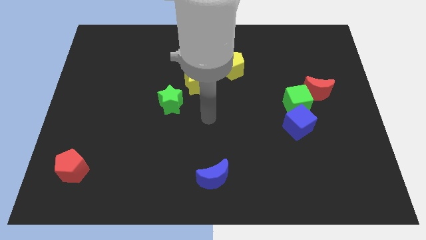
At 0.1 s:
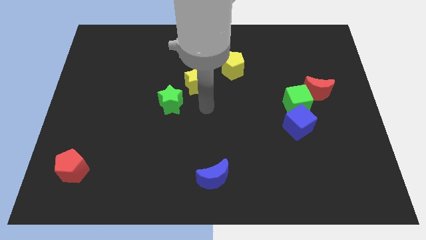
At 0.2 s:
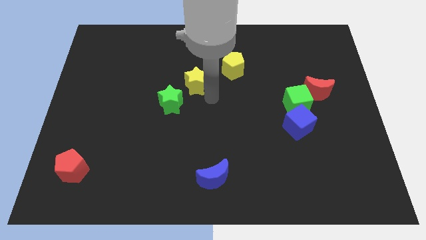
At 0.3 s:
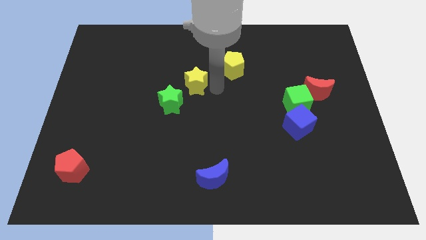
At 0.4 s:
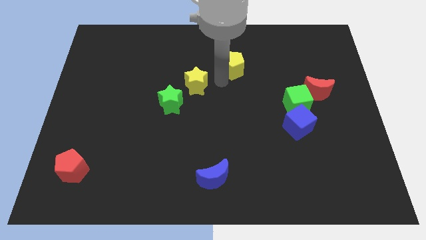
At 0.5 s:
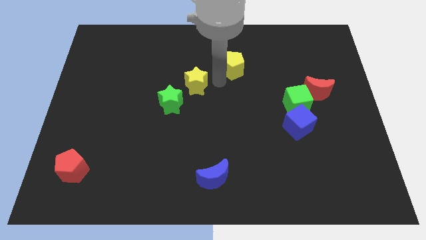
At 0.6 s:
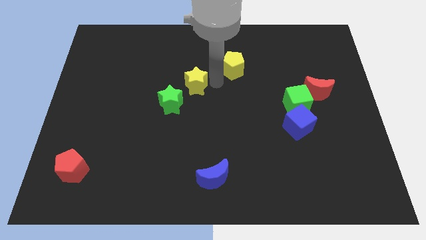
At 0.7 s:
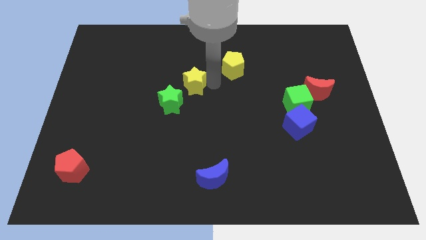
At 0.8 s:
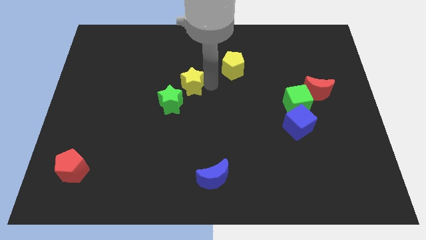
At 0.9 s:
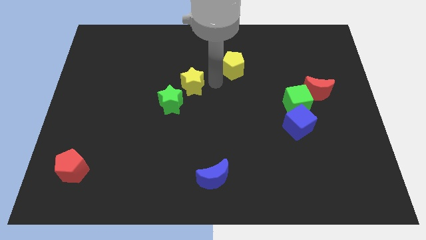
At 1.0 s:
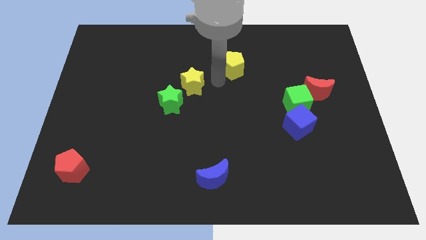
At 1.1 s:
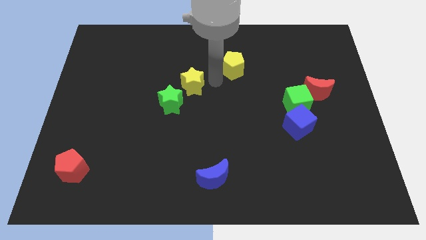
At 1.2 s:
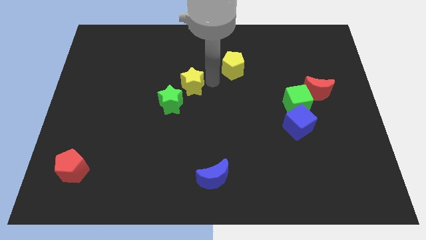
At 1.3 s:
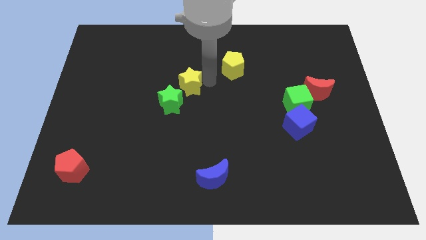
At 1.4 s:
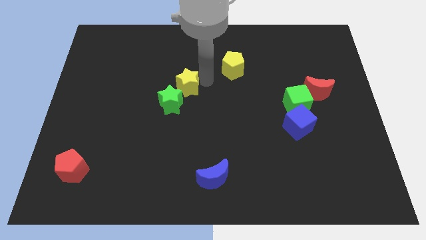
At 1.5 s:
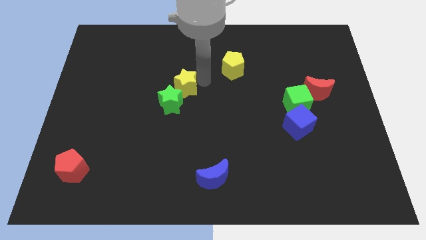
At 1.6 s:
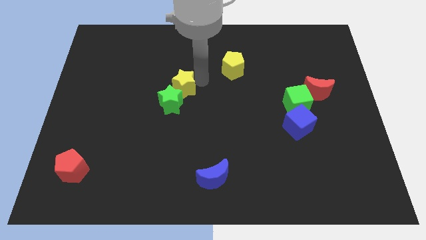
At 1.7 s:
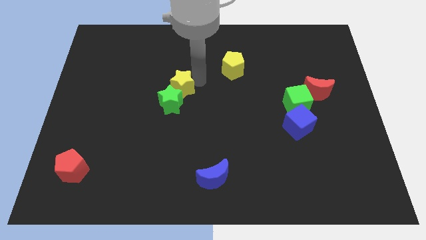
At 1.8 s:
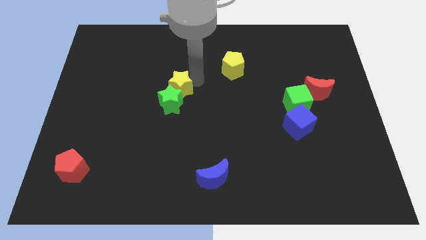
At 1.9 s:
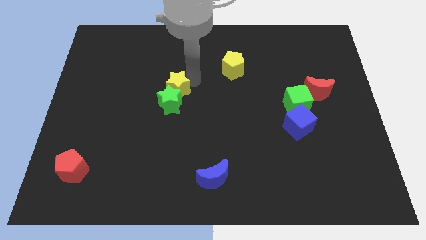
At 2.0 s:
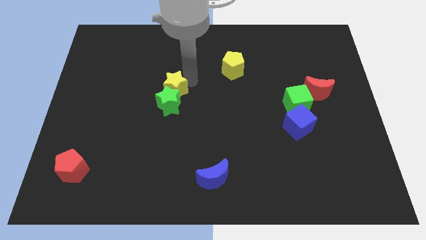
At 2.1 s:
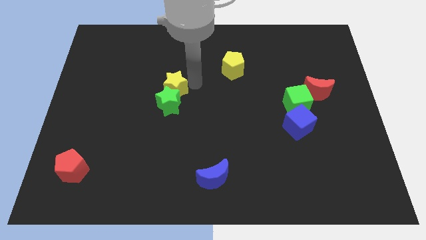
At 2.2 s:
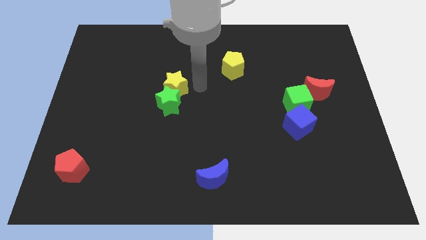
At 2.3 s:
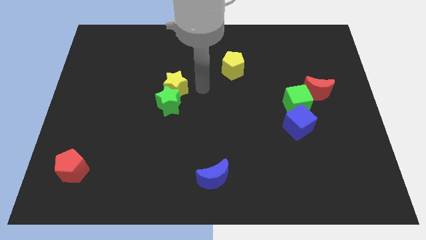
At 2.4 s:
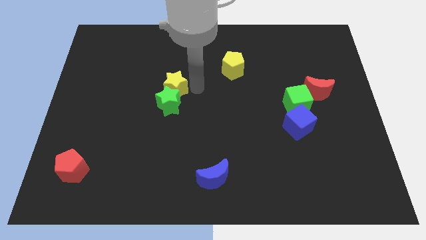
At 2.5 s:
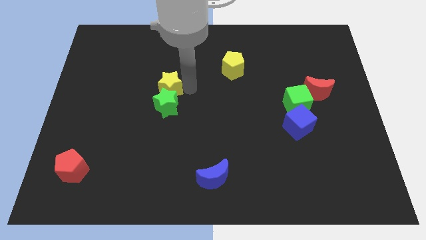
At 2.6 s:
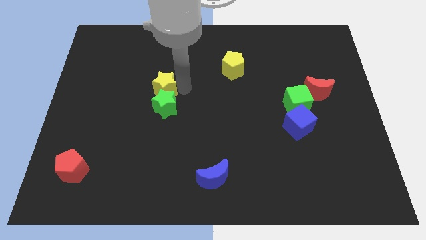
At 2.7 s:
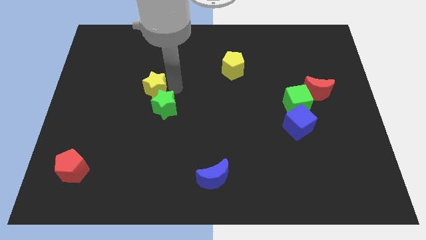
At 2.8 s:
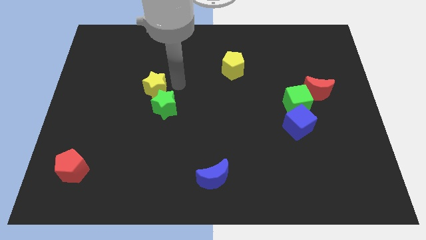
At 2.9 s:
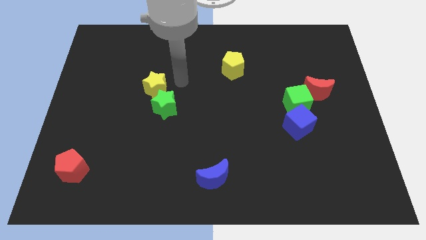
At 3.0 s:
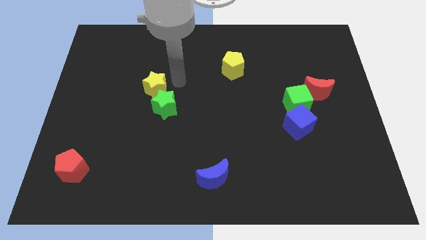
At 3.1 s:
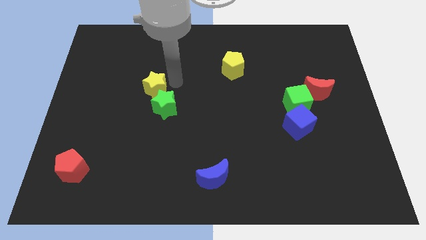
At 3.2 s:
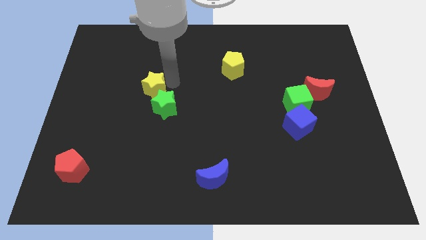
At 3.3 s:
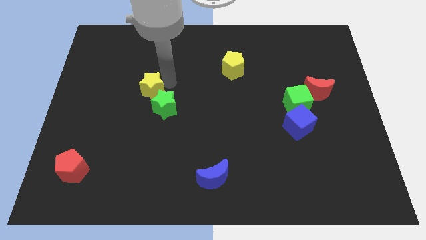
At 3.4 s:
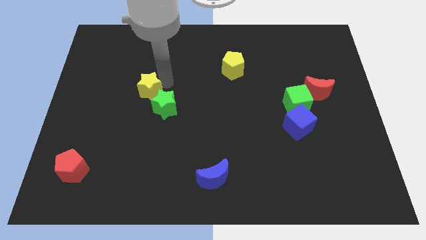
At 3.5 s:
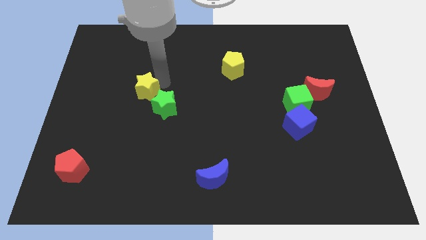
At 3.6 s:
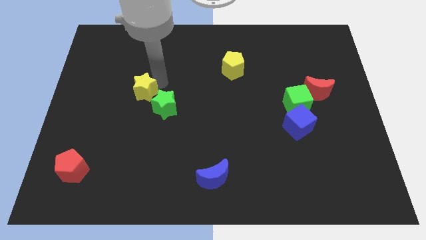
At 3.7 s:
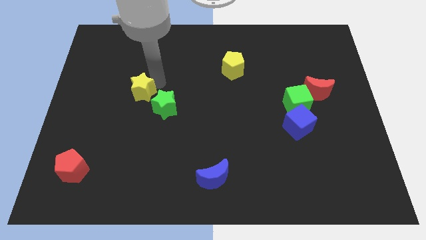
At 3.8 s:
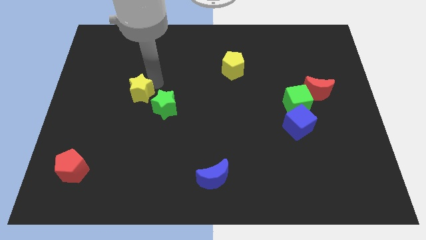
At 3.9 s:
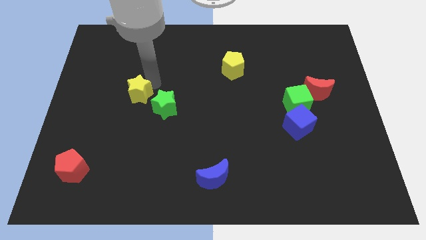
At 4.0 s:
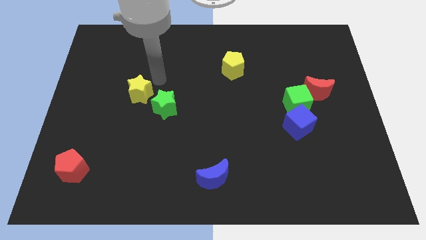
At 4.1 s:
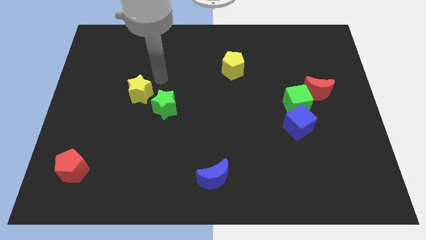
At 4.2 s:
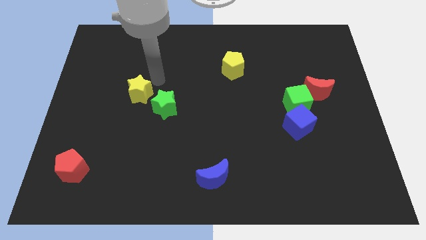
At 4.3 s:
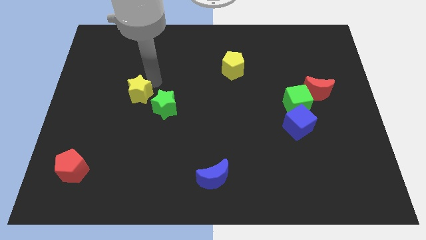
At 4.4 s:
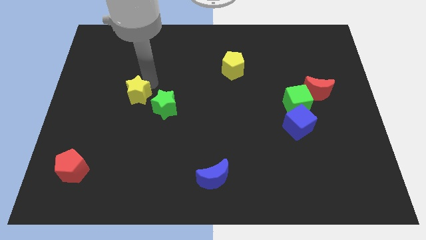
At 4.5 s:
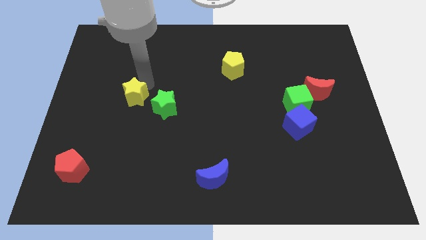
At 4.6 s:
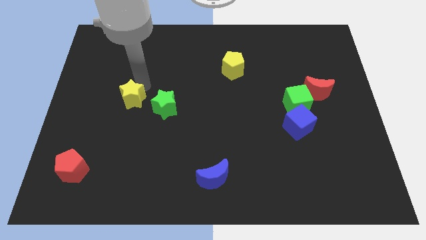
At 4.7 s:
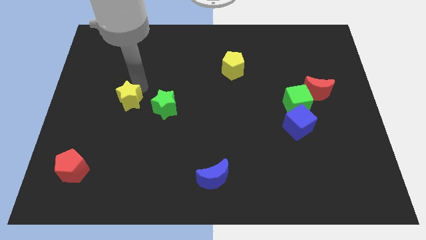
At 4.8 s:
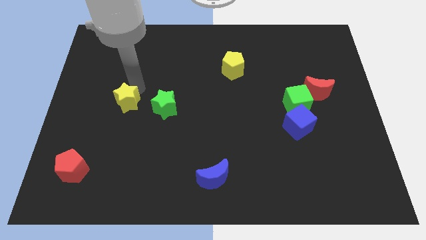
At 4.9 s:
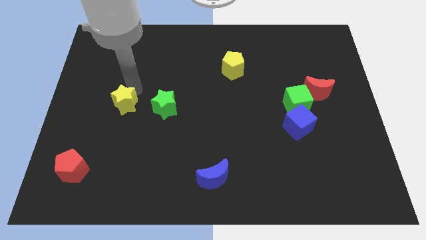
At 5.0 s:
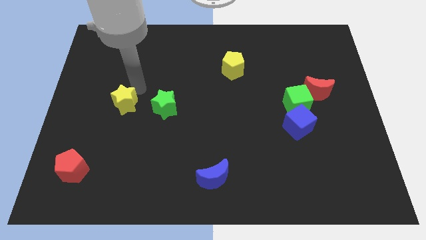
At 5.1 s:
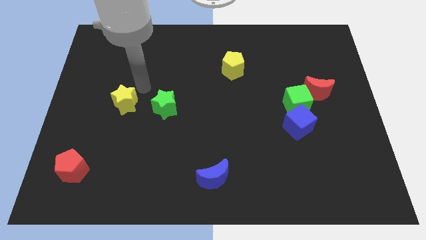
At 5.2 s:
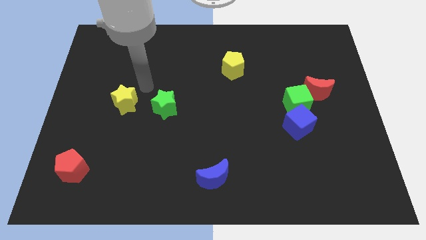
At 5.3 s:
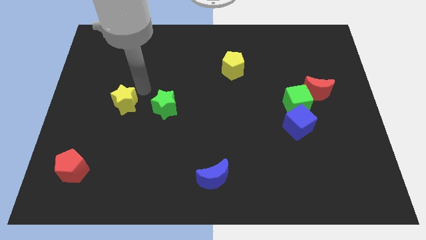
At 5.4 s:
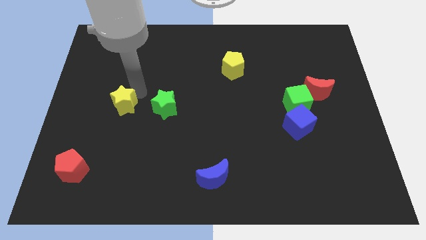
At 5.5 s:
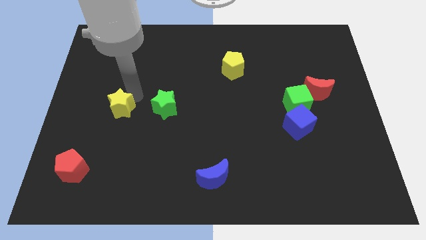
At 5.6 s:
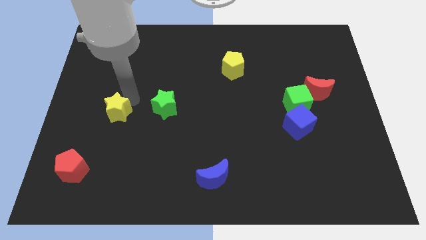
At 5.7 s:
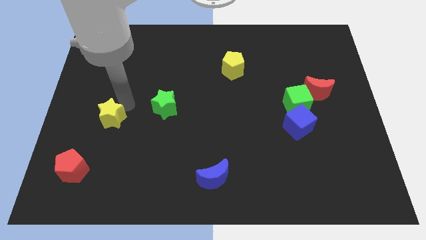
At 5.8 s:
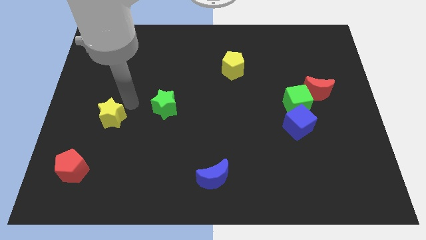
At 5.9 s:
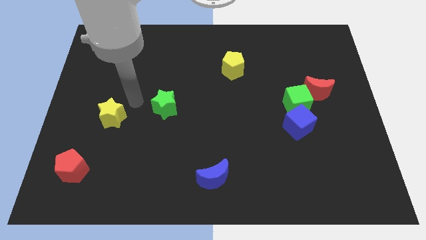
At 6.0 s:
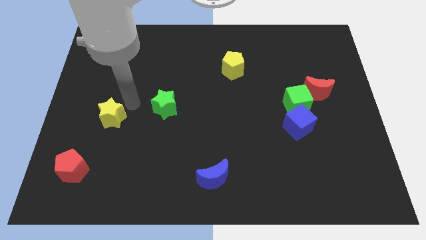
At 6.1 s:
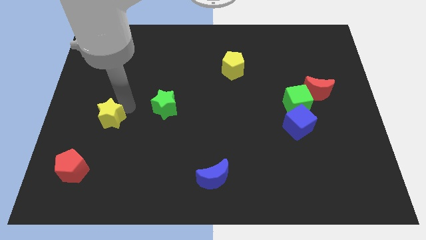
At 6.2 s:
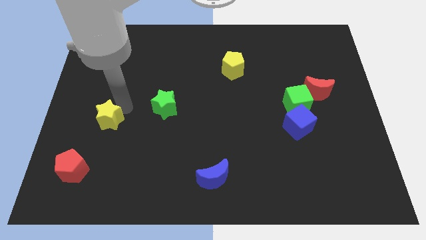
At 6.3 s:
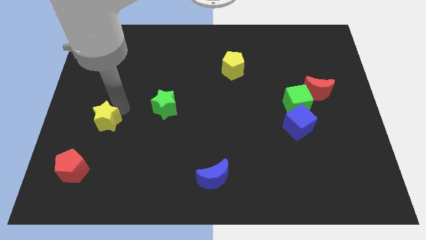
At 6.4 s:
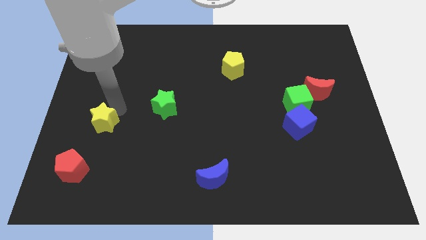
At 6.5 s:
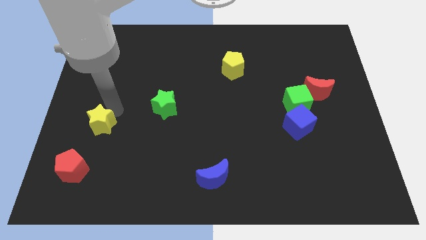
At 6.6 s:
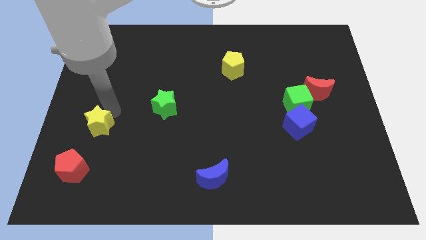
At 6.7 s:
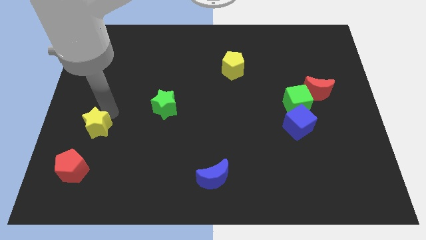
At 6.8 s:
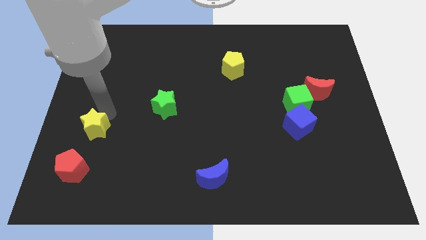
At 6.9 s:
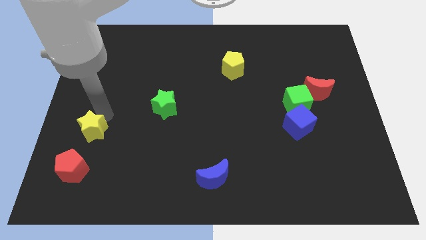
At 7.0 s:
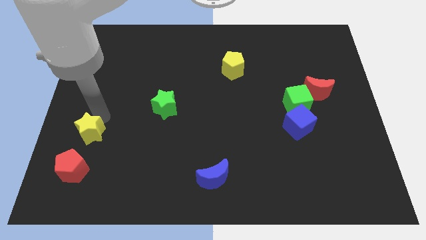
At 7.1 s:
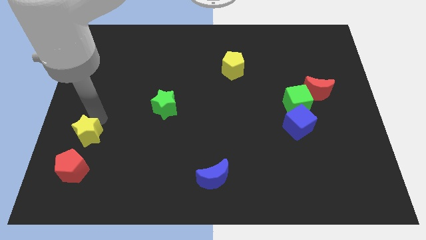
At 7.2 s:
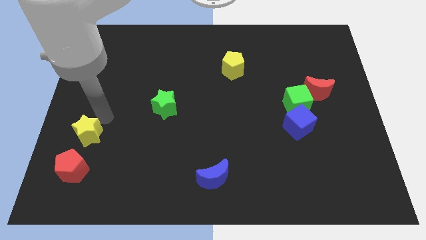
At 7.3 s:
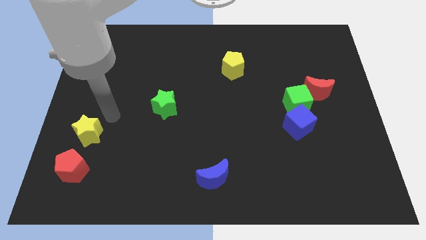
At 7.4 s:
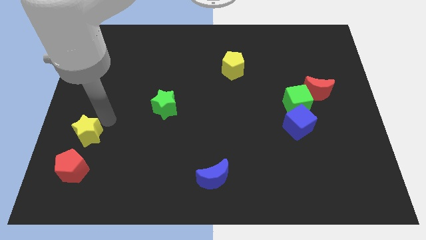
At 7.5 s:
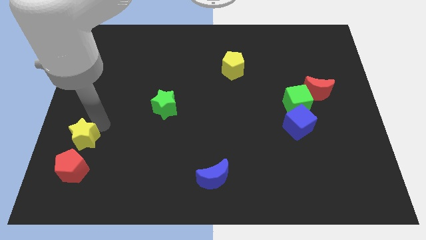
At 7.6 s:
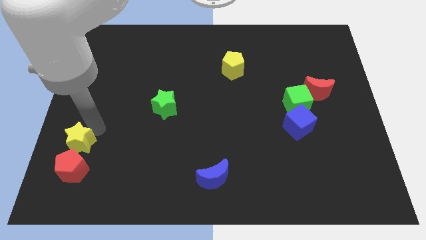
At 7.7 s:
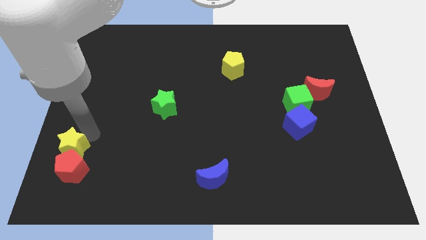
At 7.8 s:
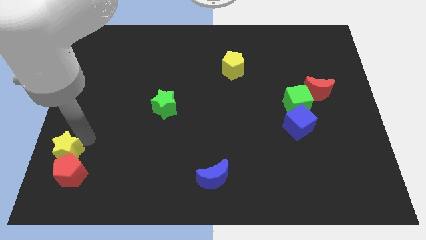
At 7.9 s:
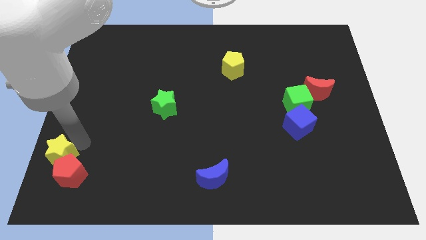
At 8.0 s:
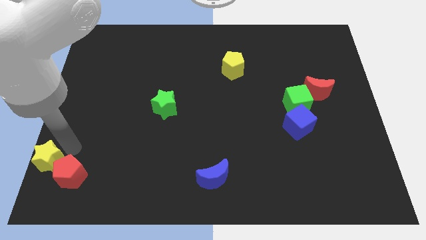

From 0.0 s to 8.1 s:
slide the yellow star to the lower left corner
